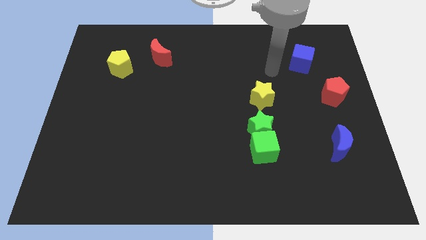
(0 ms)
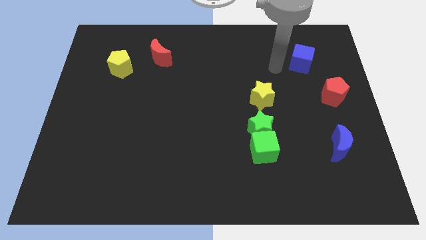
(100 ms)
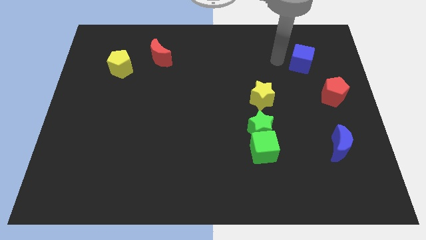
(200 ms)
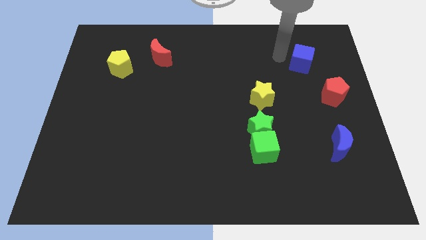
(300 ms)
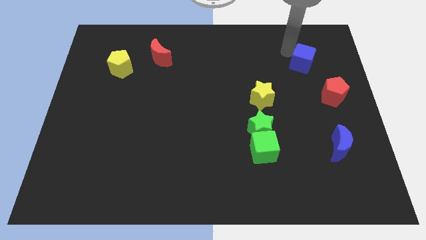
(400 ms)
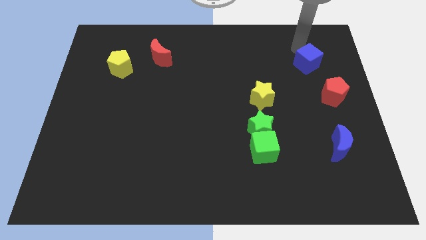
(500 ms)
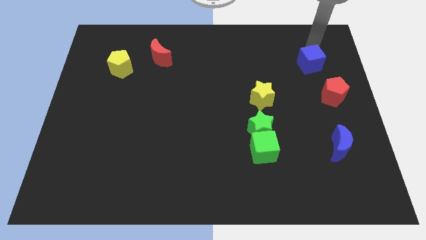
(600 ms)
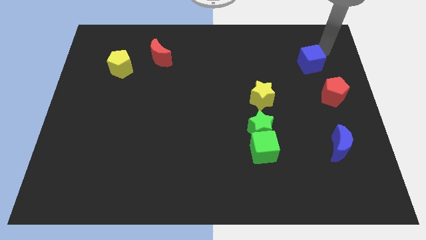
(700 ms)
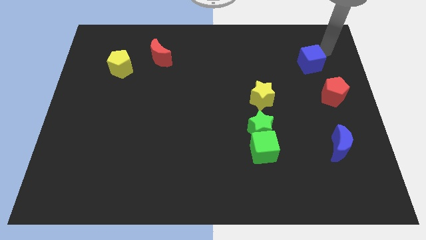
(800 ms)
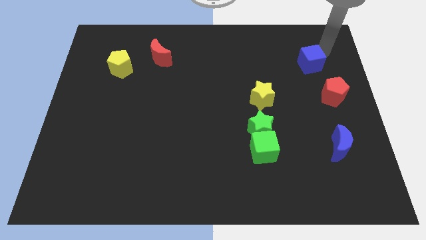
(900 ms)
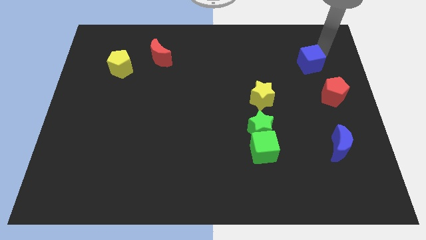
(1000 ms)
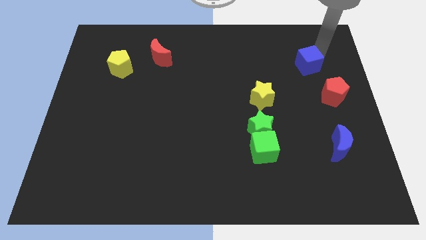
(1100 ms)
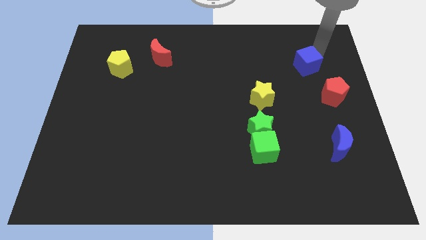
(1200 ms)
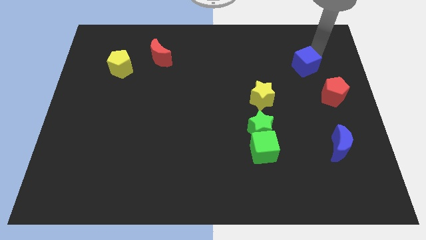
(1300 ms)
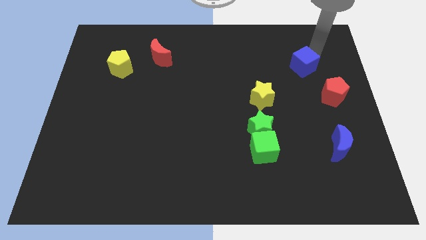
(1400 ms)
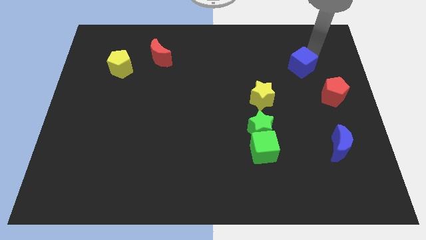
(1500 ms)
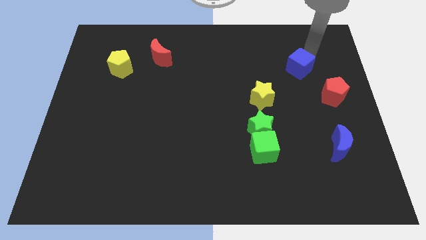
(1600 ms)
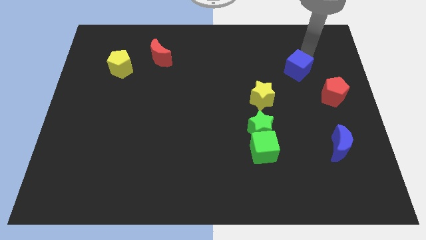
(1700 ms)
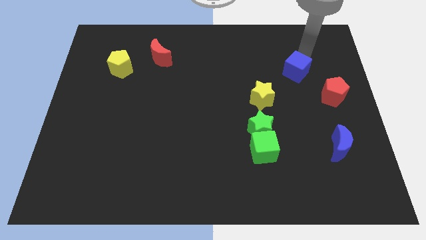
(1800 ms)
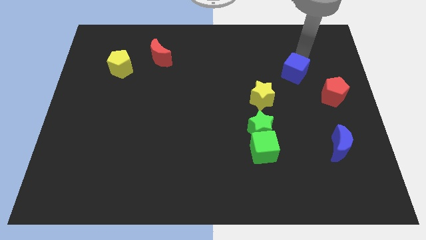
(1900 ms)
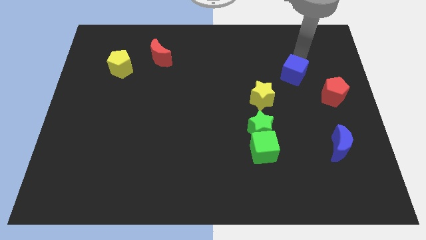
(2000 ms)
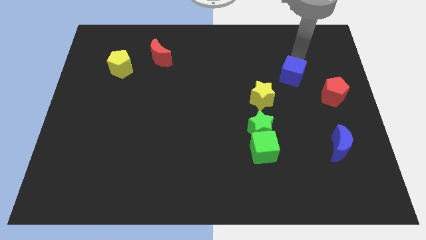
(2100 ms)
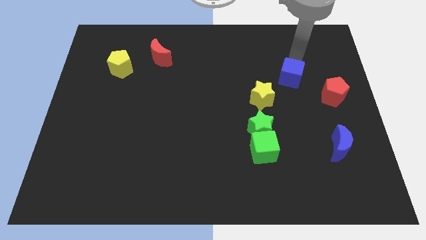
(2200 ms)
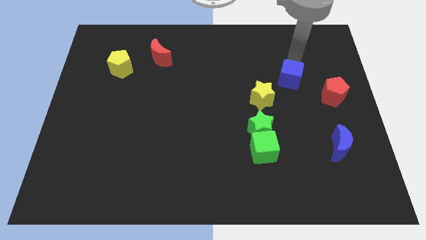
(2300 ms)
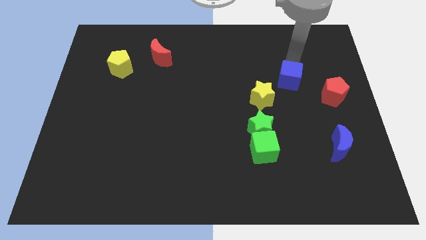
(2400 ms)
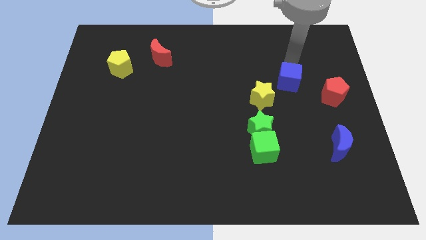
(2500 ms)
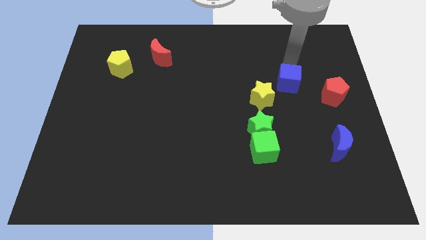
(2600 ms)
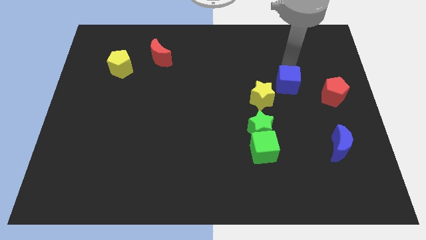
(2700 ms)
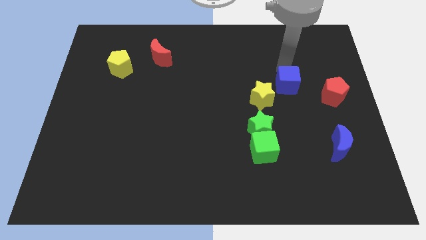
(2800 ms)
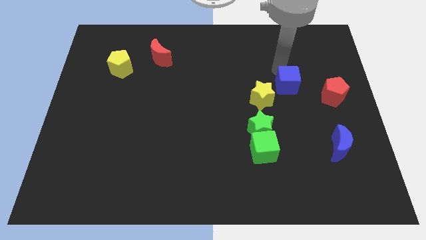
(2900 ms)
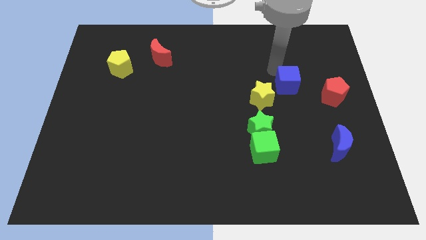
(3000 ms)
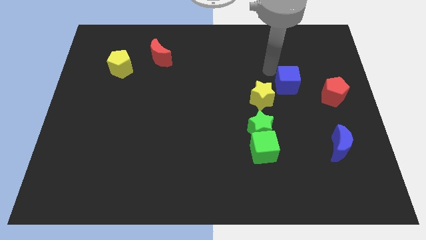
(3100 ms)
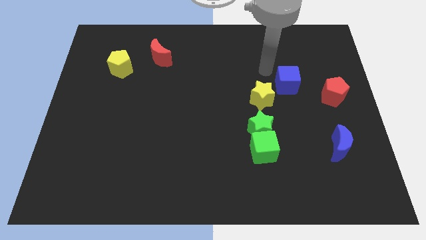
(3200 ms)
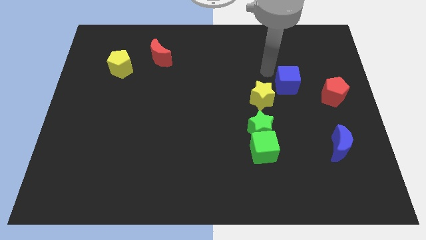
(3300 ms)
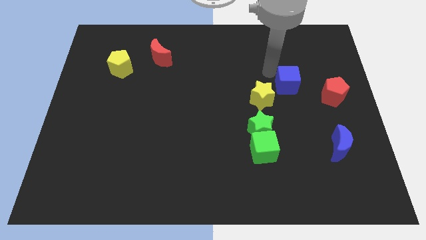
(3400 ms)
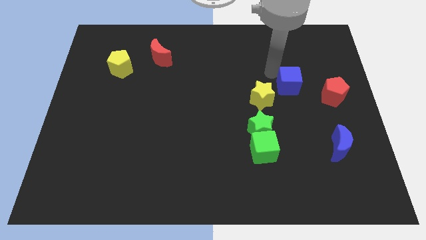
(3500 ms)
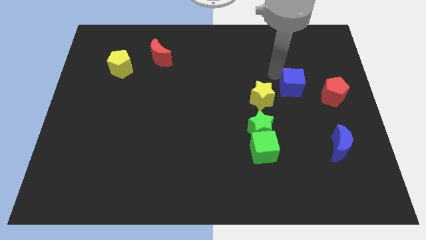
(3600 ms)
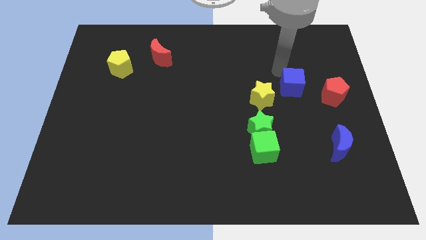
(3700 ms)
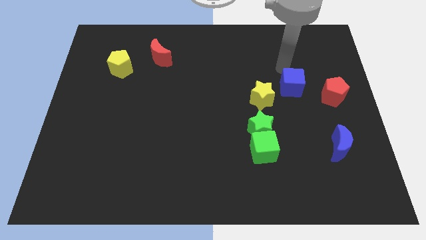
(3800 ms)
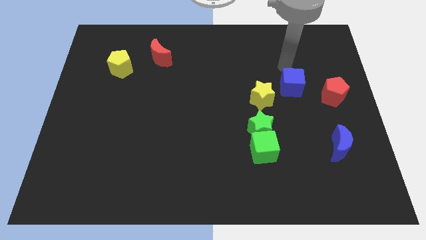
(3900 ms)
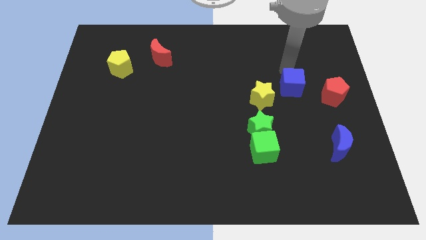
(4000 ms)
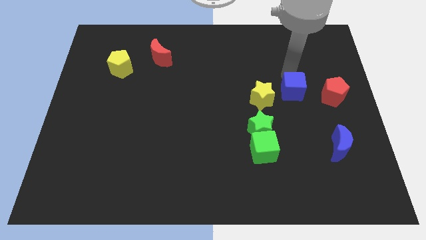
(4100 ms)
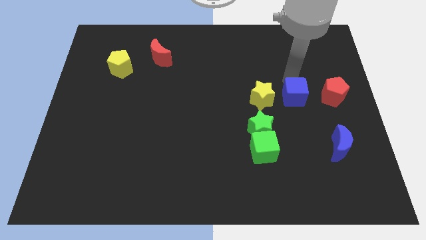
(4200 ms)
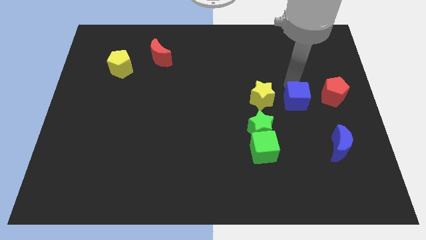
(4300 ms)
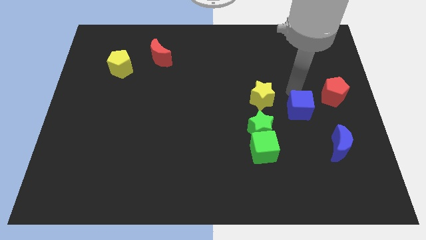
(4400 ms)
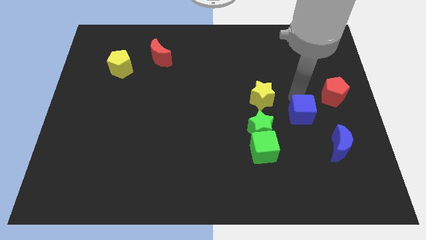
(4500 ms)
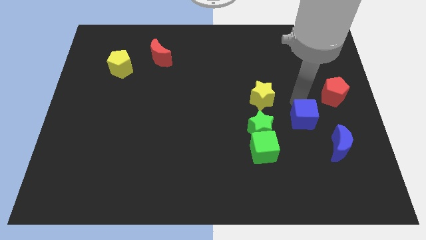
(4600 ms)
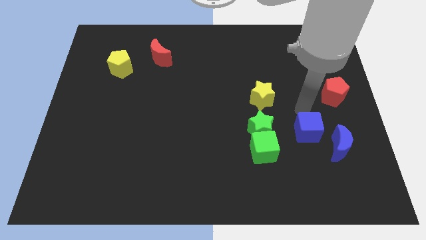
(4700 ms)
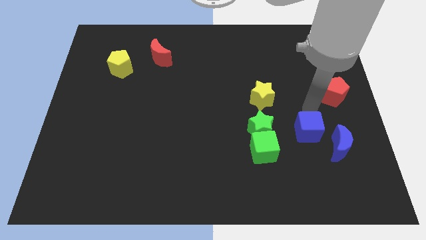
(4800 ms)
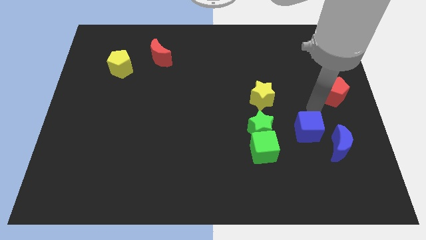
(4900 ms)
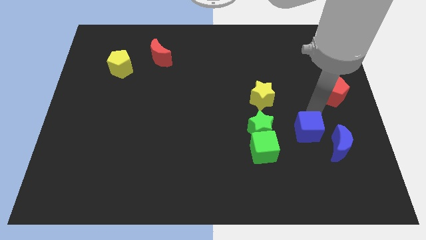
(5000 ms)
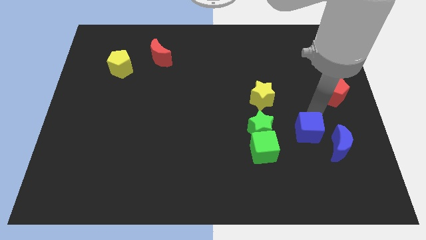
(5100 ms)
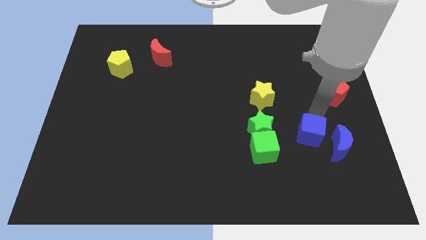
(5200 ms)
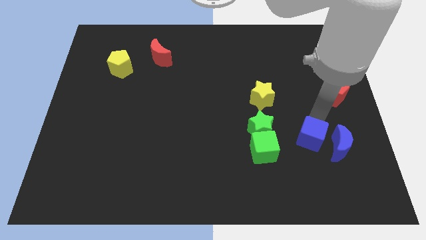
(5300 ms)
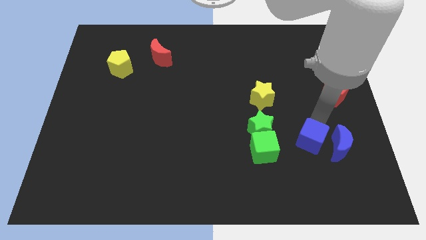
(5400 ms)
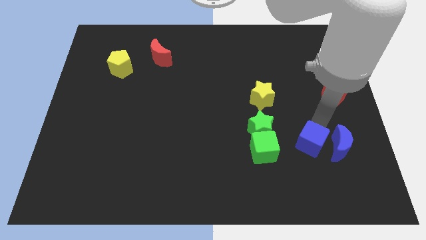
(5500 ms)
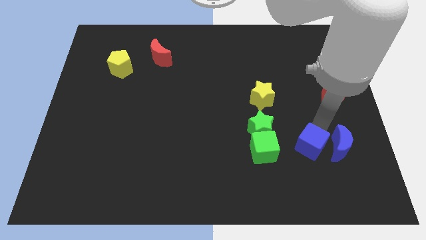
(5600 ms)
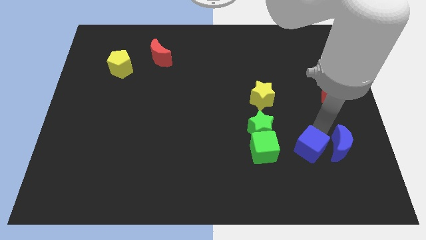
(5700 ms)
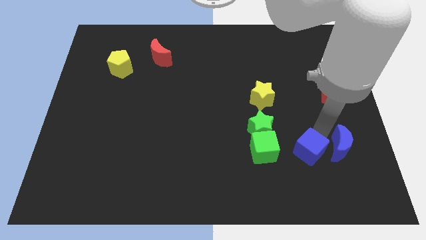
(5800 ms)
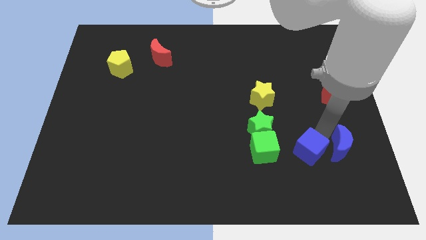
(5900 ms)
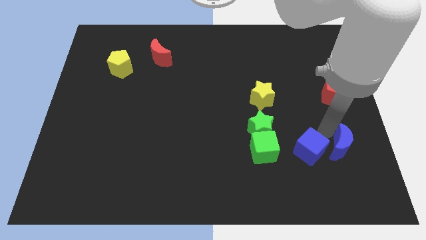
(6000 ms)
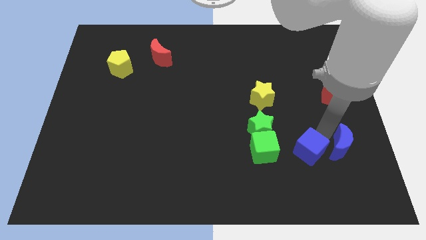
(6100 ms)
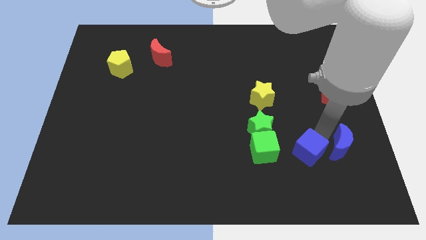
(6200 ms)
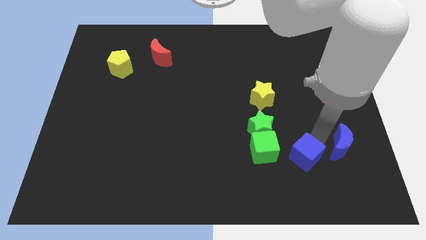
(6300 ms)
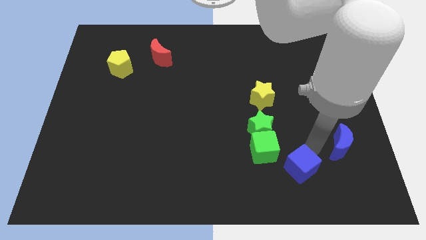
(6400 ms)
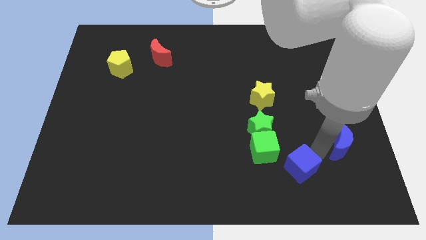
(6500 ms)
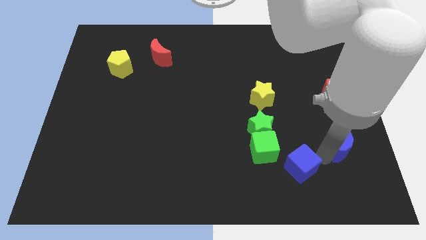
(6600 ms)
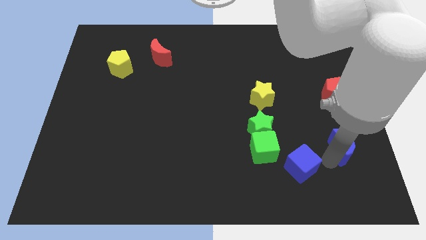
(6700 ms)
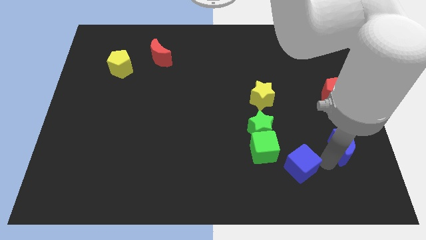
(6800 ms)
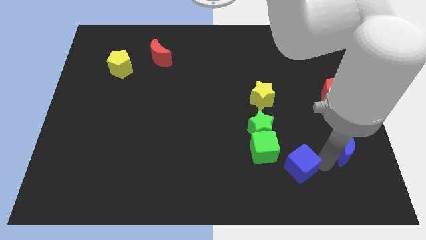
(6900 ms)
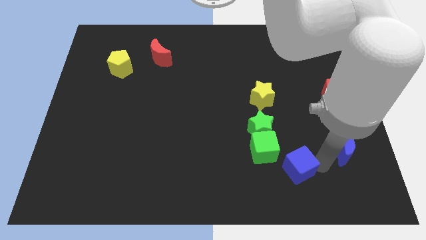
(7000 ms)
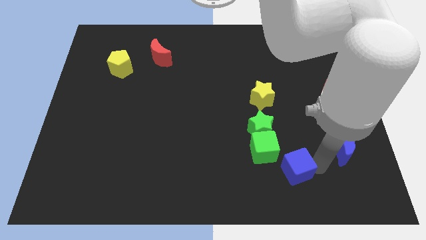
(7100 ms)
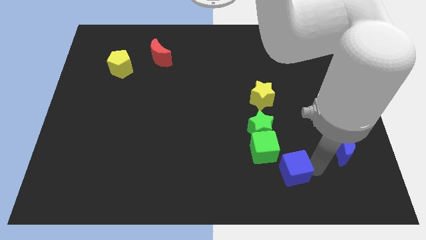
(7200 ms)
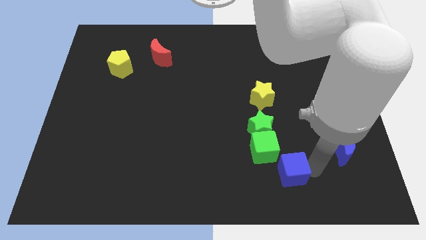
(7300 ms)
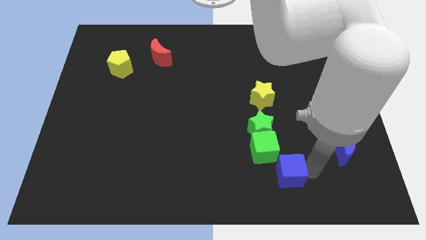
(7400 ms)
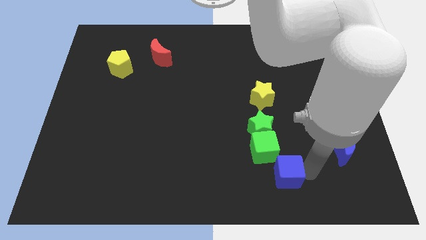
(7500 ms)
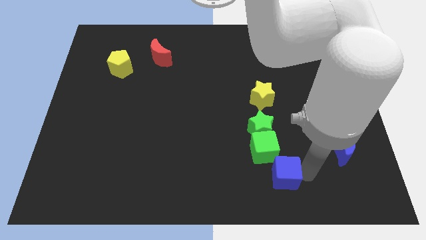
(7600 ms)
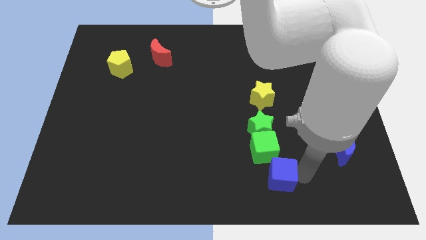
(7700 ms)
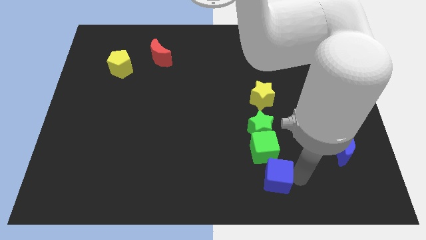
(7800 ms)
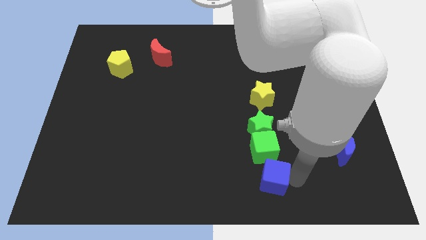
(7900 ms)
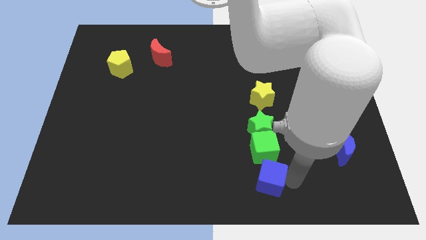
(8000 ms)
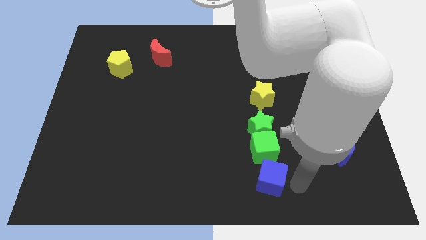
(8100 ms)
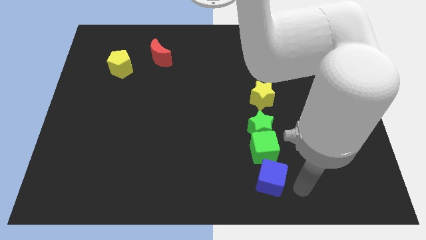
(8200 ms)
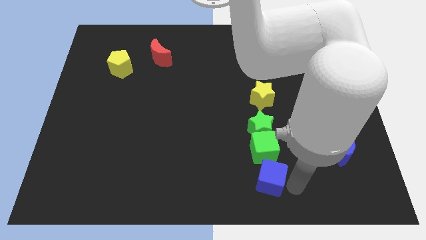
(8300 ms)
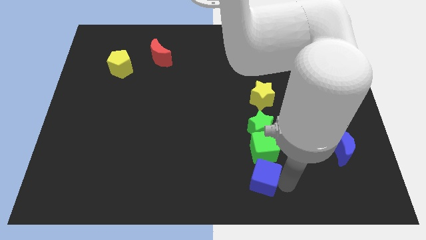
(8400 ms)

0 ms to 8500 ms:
slide the blue cube to the bottom left of the green cube
